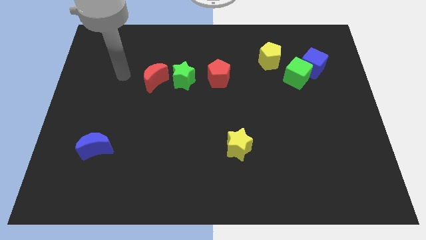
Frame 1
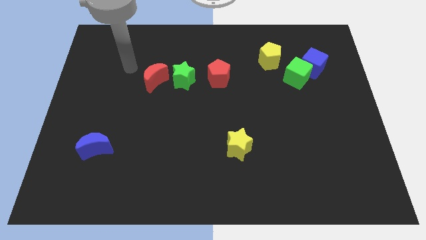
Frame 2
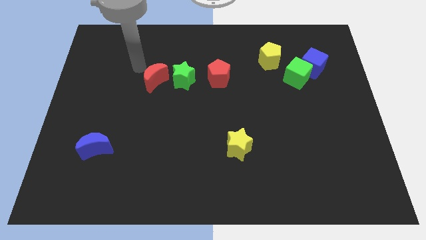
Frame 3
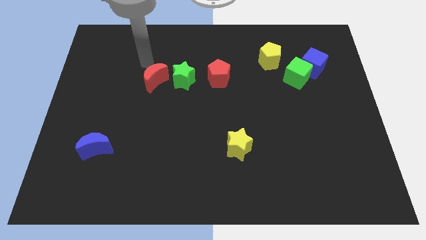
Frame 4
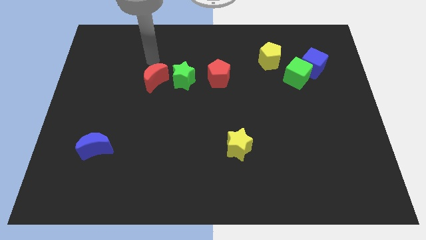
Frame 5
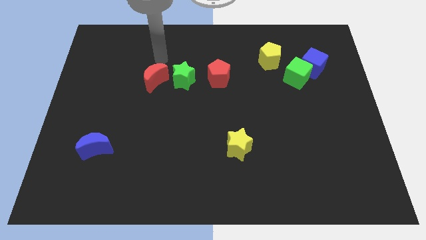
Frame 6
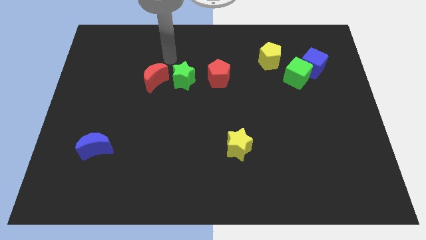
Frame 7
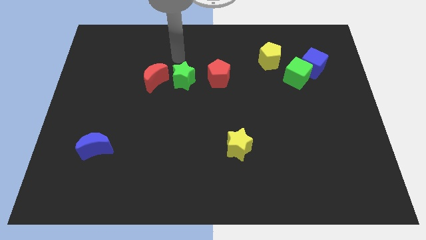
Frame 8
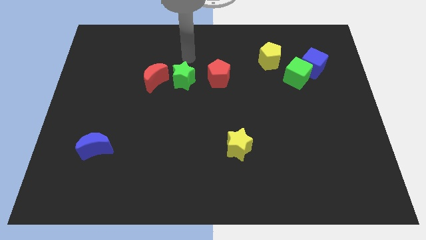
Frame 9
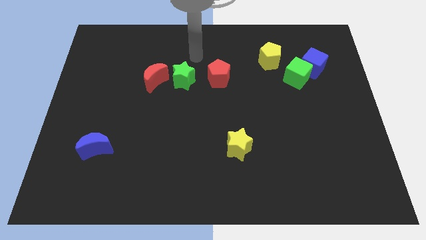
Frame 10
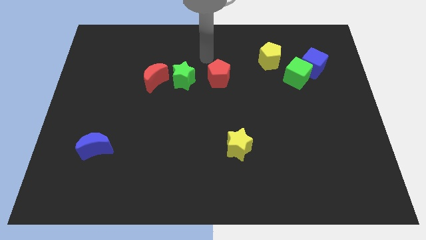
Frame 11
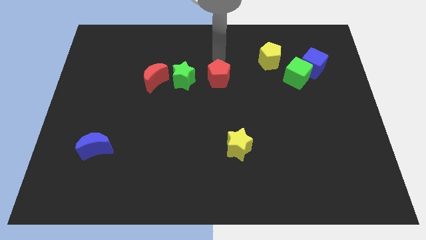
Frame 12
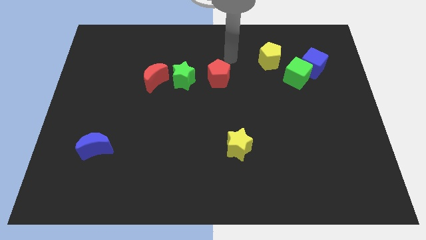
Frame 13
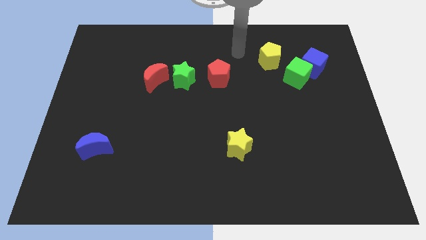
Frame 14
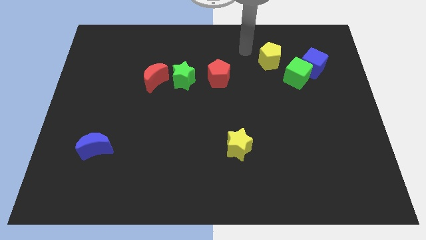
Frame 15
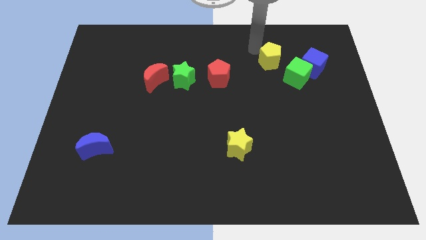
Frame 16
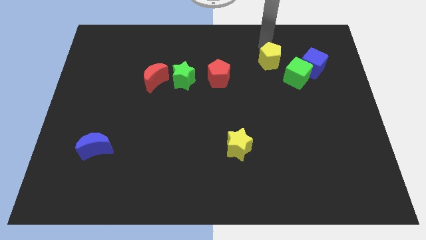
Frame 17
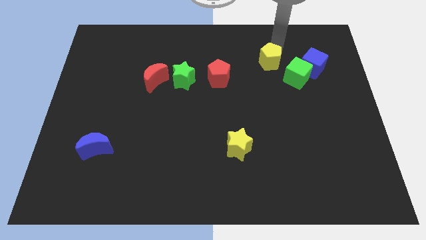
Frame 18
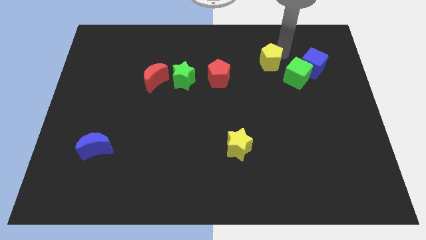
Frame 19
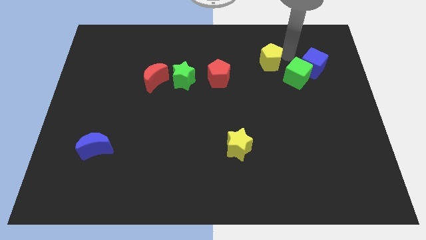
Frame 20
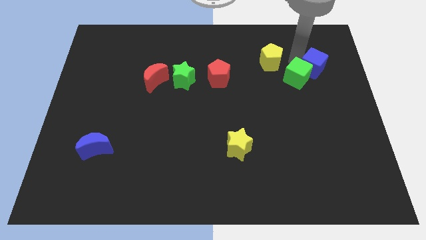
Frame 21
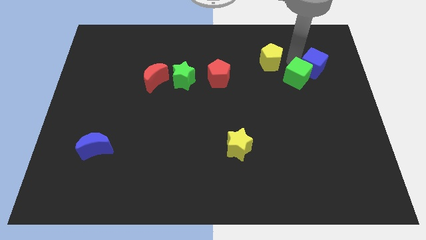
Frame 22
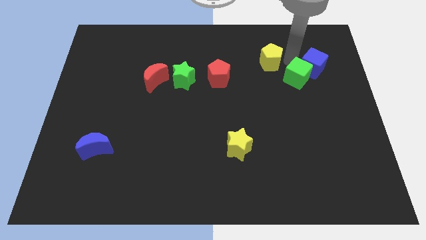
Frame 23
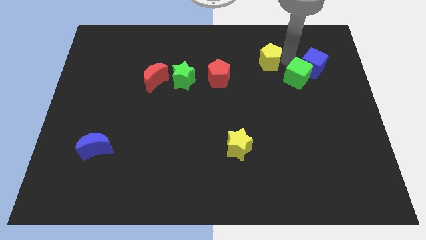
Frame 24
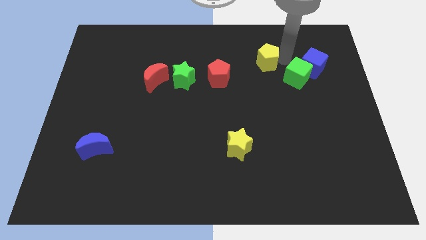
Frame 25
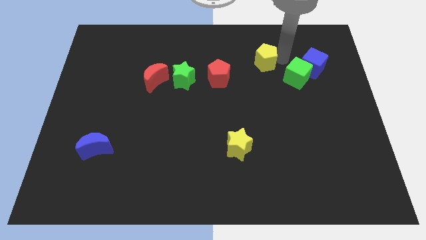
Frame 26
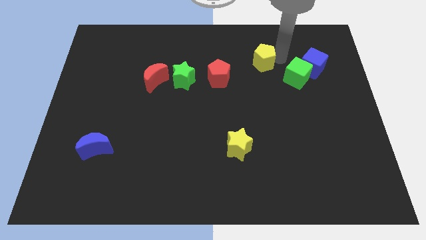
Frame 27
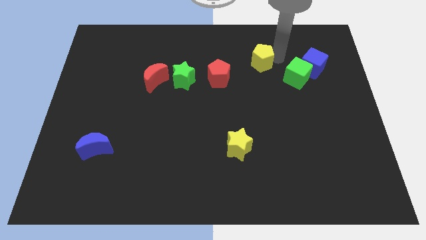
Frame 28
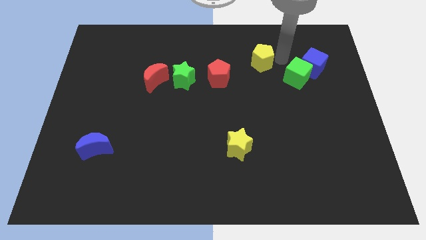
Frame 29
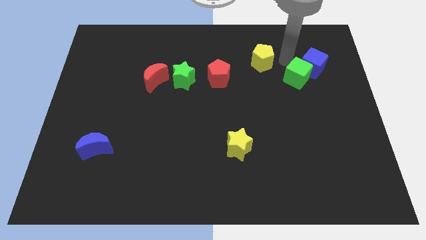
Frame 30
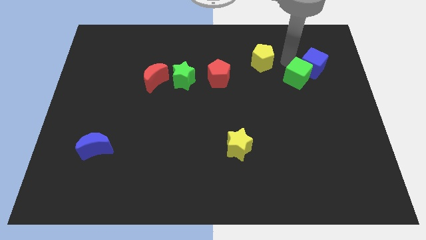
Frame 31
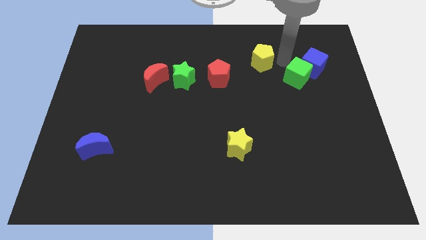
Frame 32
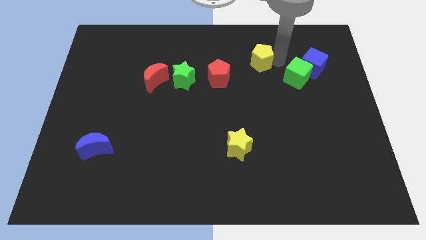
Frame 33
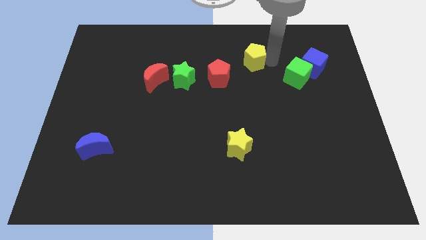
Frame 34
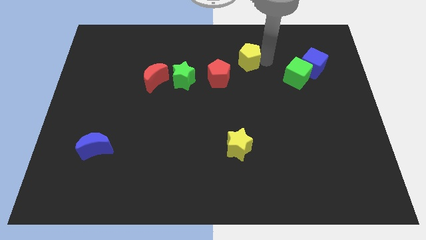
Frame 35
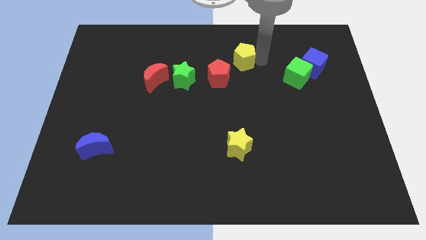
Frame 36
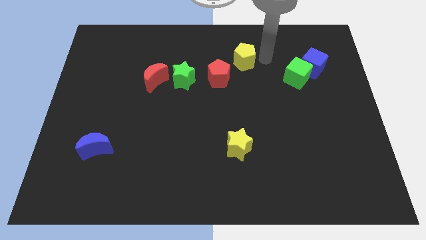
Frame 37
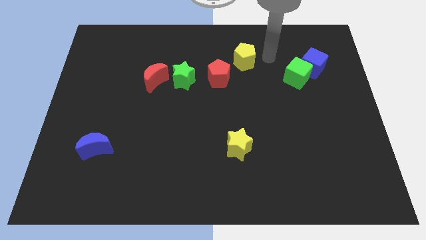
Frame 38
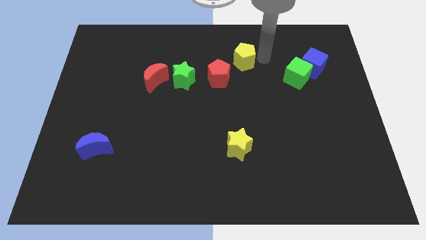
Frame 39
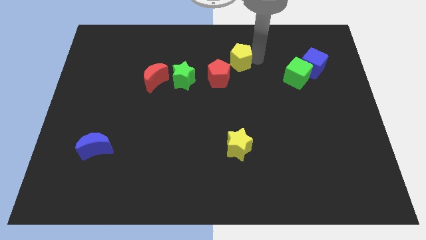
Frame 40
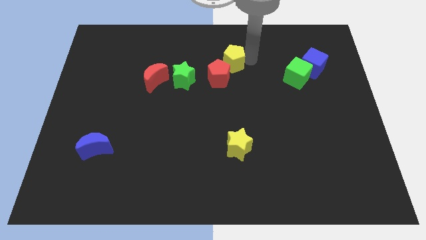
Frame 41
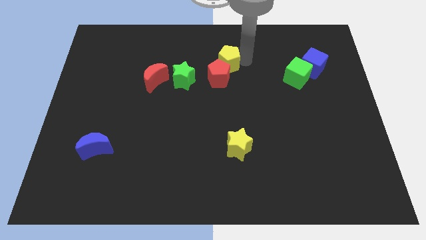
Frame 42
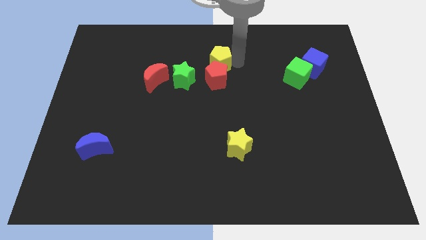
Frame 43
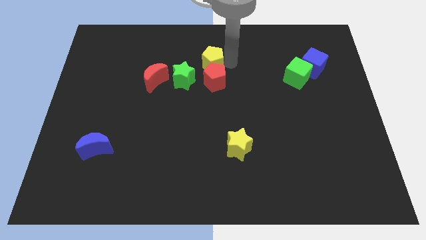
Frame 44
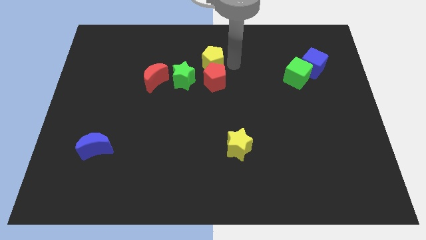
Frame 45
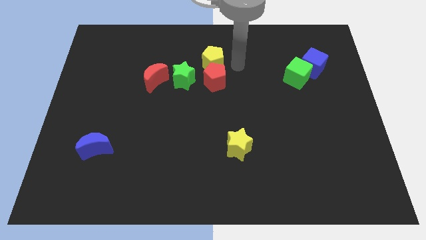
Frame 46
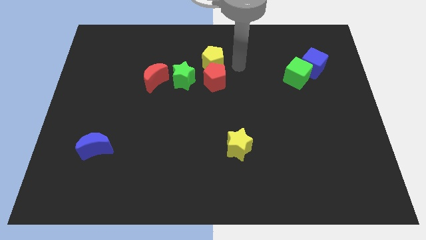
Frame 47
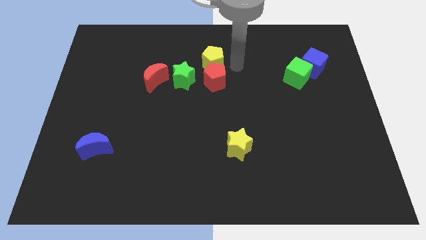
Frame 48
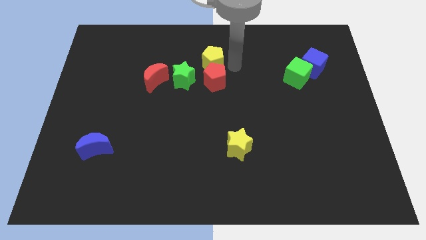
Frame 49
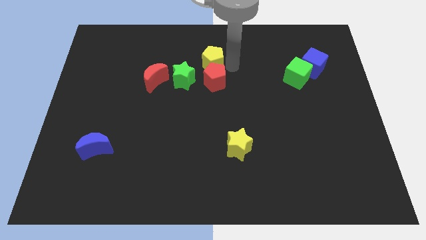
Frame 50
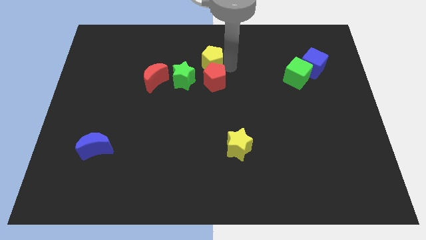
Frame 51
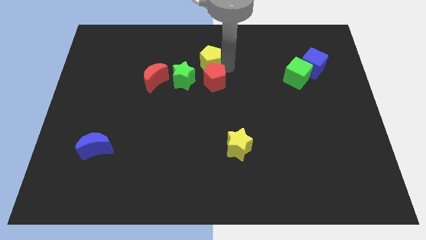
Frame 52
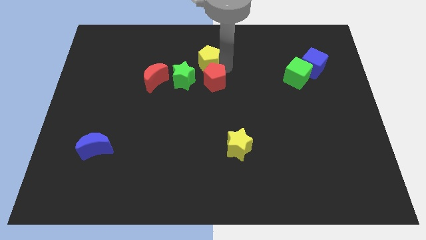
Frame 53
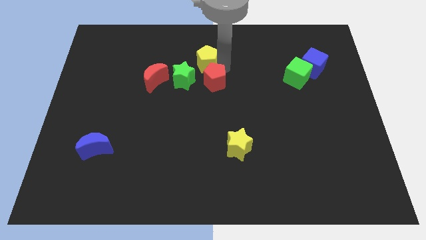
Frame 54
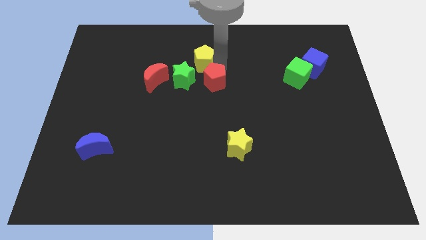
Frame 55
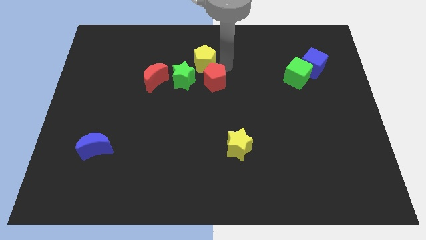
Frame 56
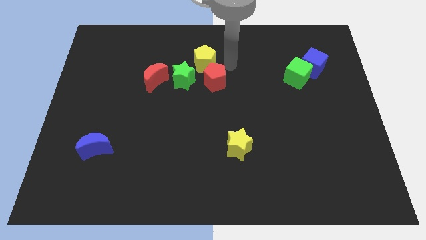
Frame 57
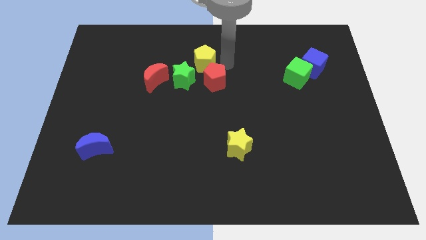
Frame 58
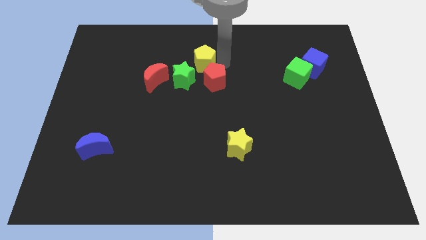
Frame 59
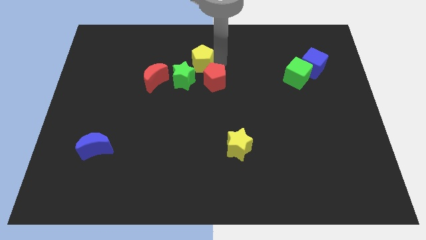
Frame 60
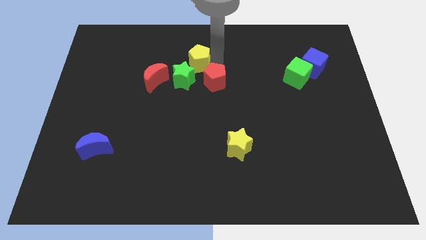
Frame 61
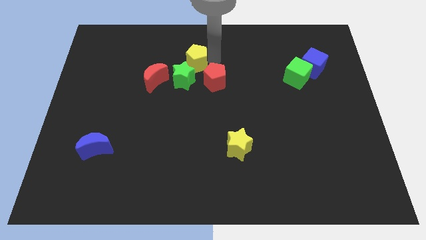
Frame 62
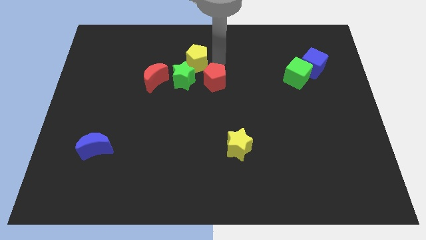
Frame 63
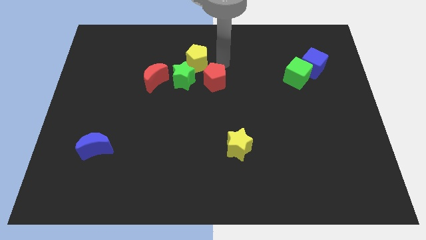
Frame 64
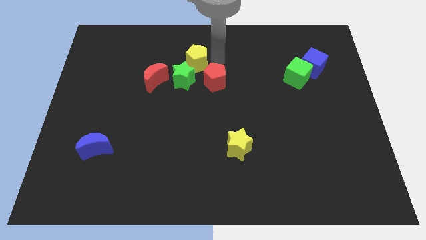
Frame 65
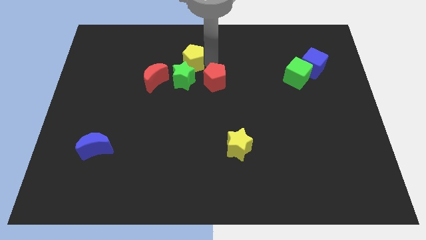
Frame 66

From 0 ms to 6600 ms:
move the yellow pentagon to the left

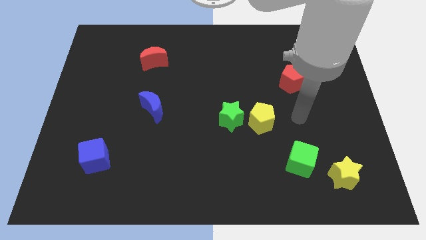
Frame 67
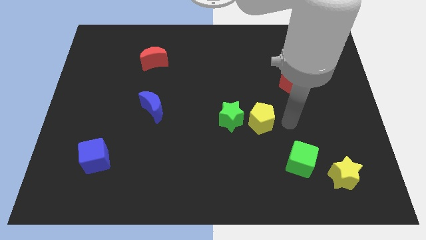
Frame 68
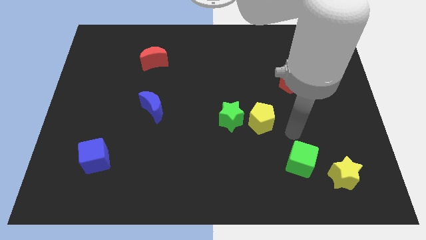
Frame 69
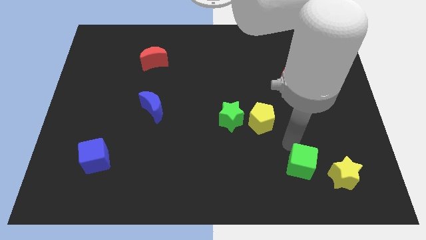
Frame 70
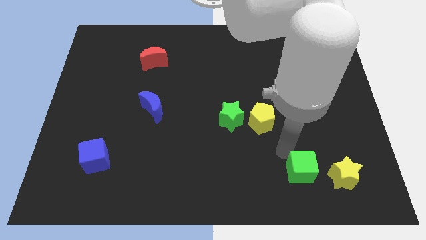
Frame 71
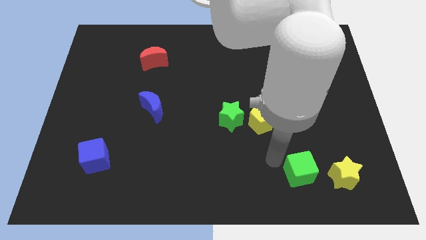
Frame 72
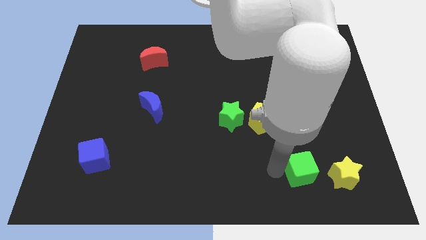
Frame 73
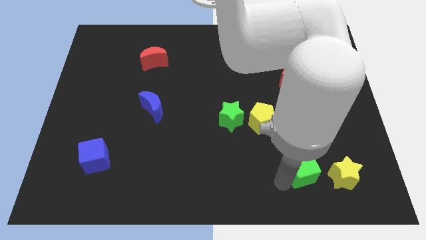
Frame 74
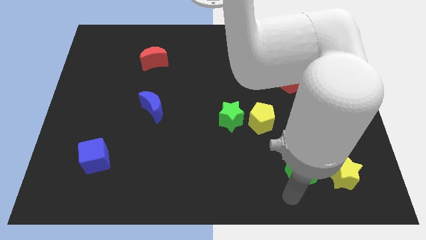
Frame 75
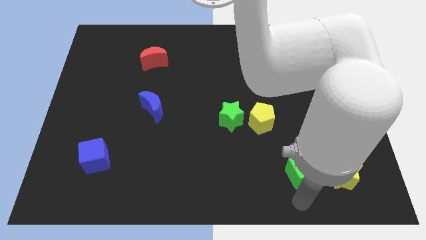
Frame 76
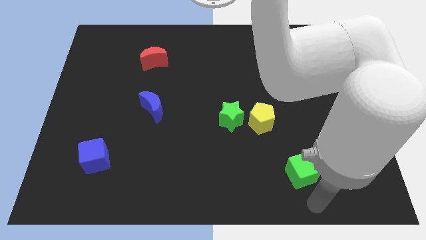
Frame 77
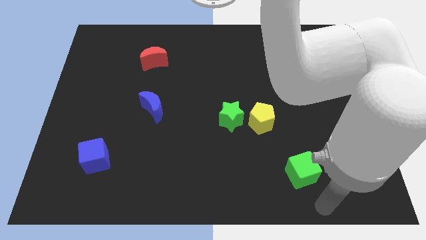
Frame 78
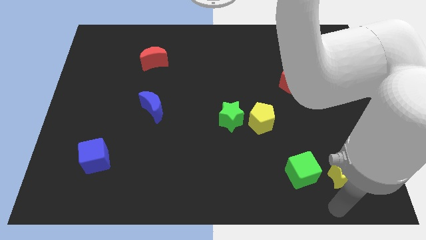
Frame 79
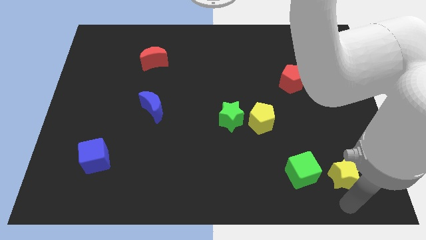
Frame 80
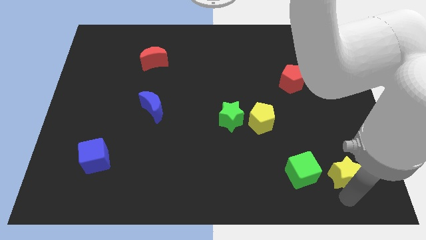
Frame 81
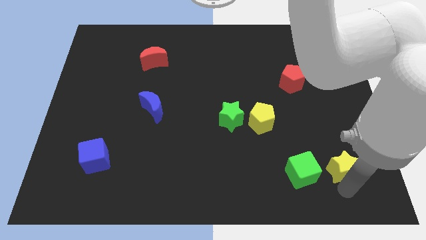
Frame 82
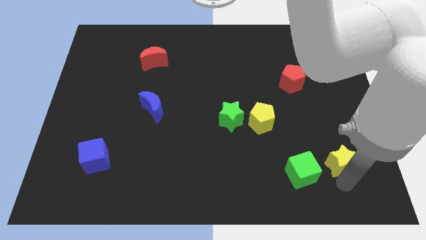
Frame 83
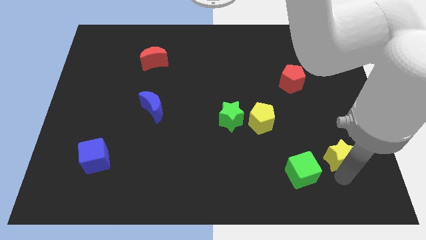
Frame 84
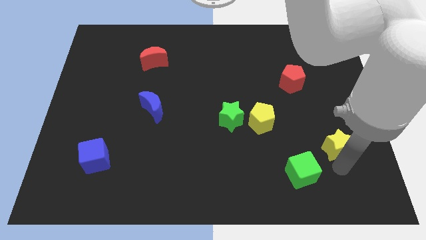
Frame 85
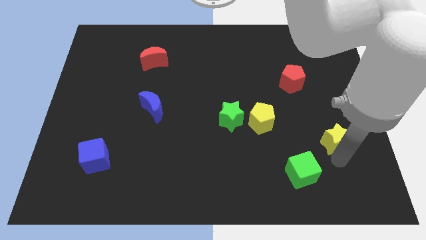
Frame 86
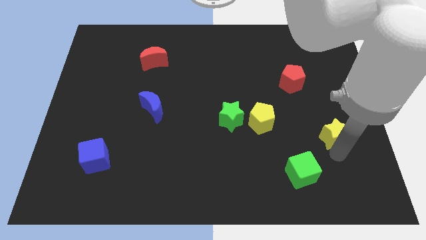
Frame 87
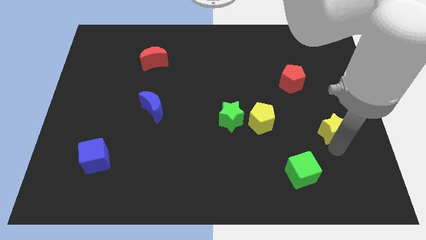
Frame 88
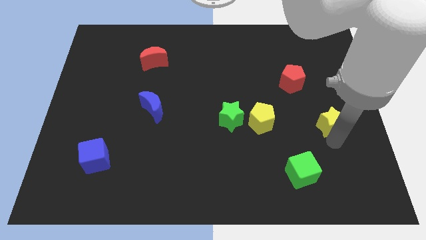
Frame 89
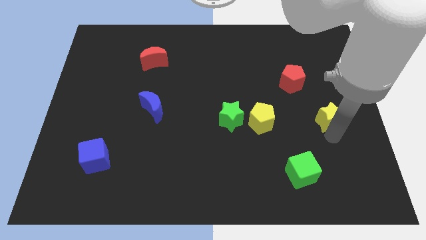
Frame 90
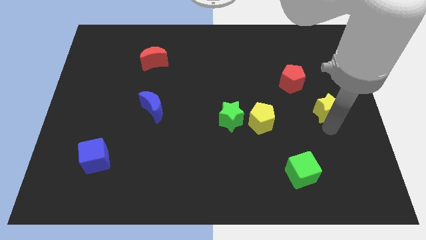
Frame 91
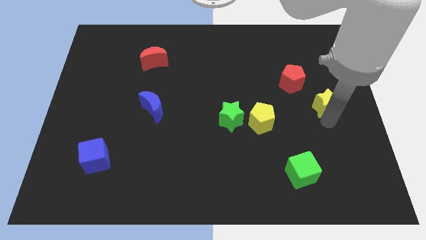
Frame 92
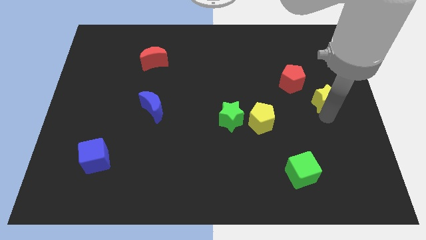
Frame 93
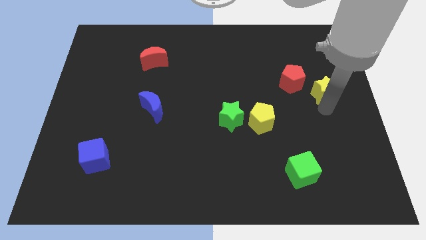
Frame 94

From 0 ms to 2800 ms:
push the yellow star up
